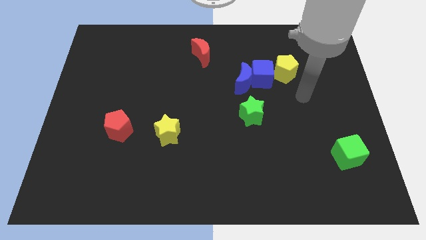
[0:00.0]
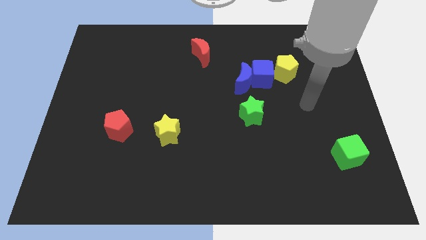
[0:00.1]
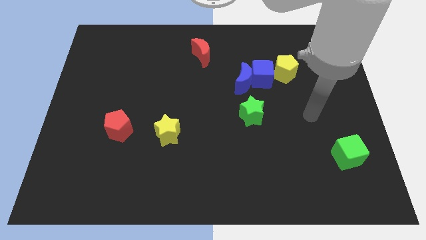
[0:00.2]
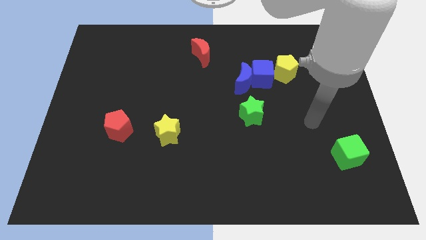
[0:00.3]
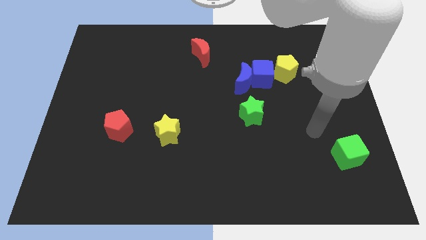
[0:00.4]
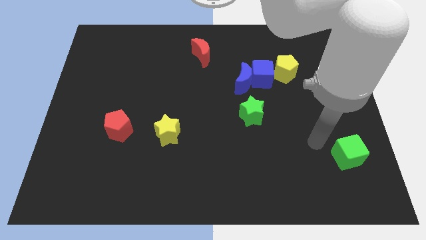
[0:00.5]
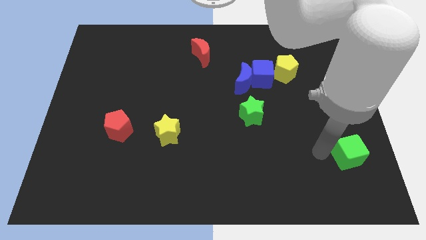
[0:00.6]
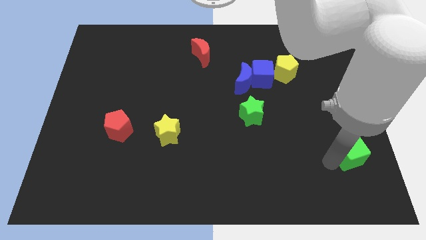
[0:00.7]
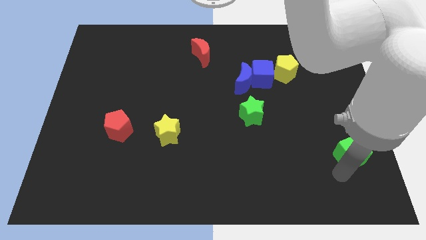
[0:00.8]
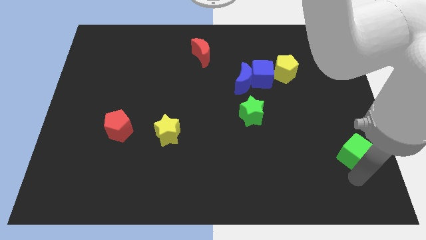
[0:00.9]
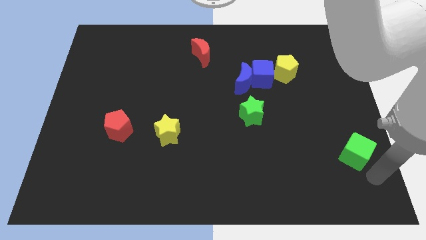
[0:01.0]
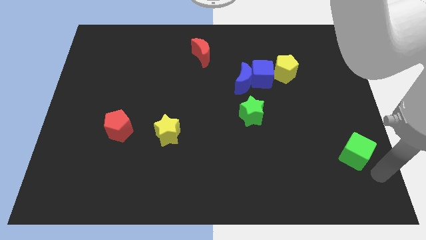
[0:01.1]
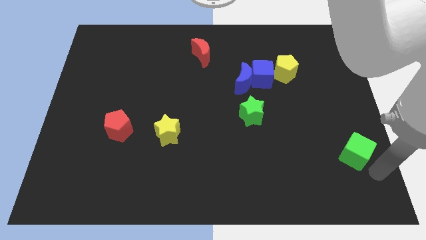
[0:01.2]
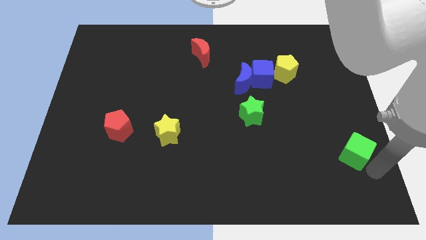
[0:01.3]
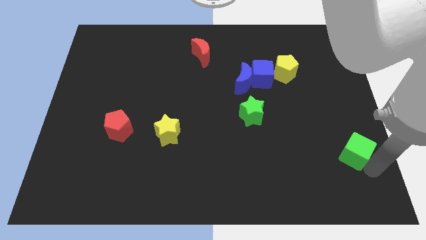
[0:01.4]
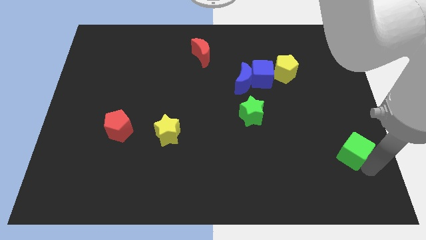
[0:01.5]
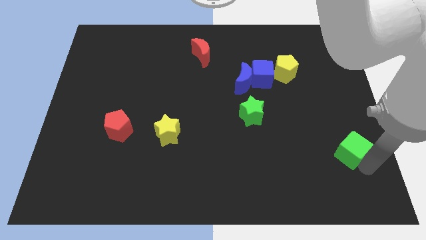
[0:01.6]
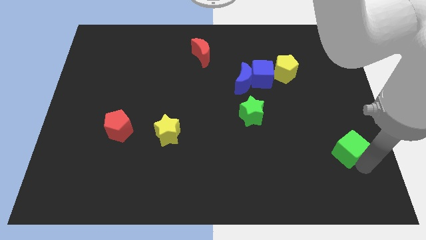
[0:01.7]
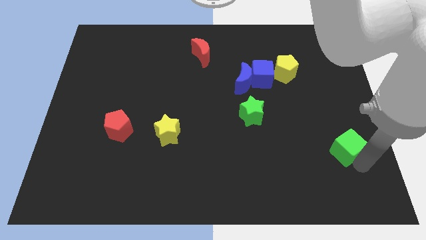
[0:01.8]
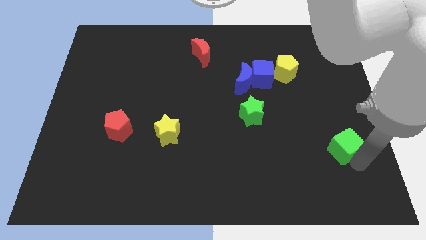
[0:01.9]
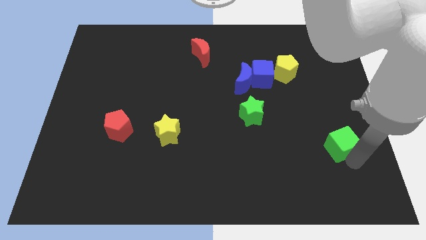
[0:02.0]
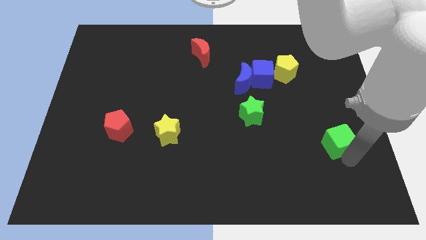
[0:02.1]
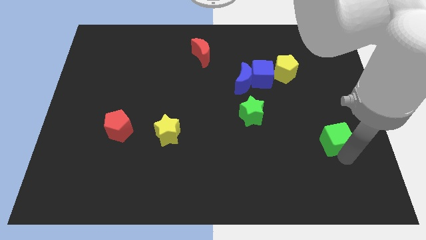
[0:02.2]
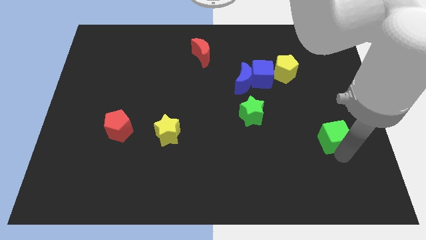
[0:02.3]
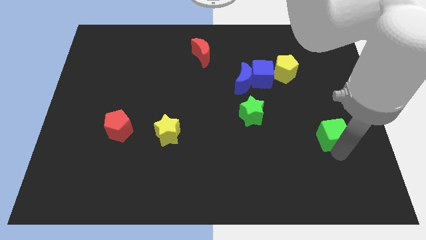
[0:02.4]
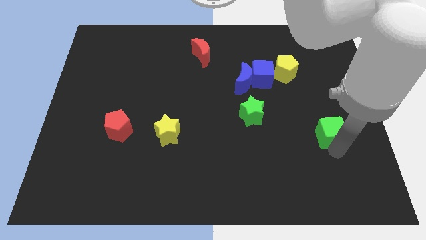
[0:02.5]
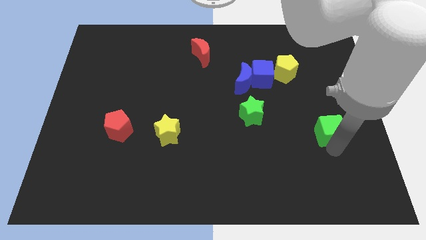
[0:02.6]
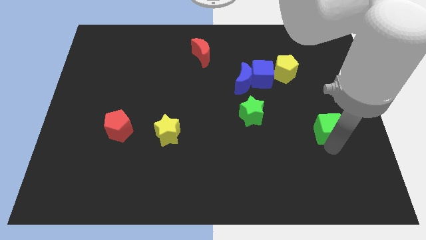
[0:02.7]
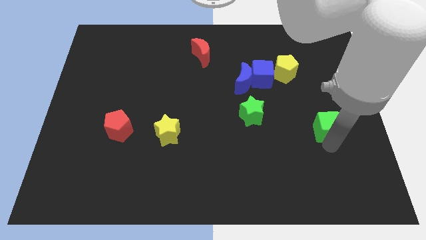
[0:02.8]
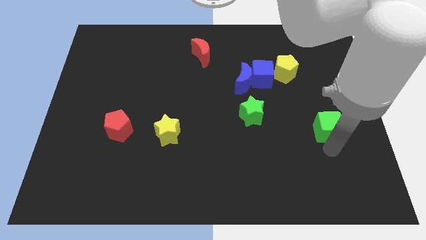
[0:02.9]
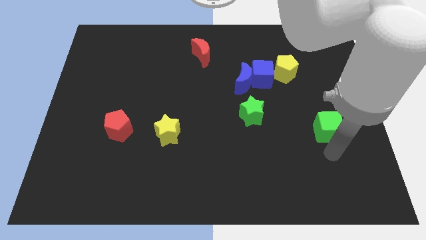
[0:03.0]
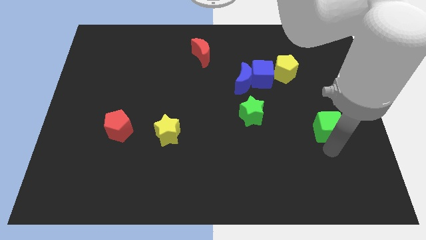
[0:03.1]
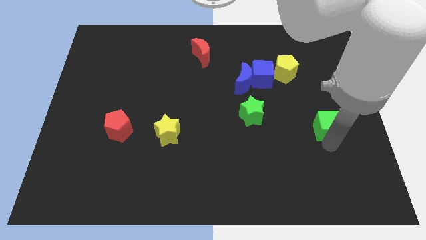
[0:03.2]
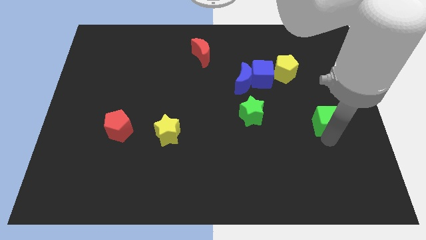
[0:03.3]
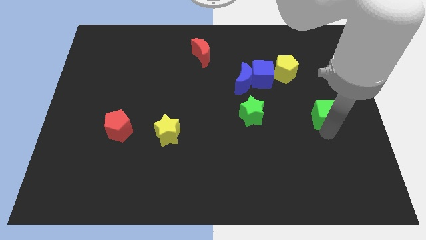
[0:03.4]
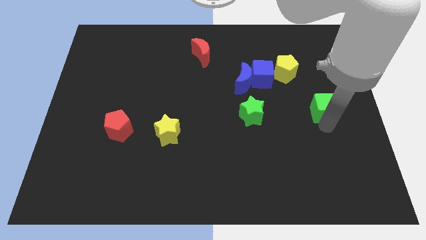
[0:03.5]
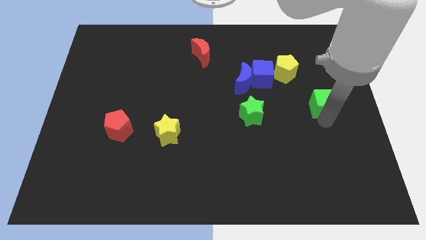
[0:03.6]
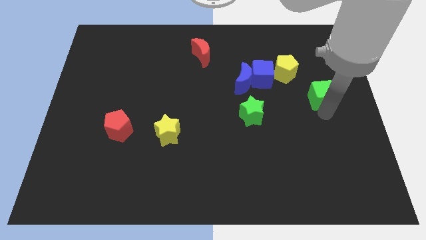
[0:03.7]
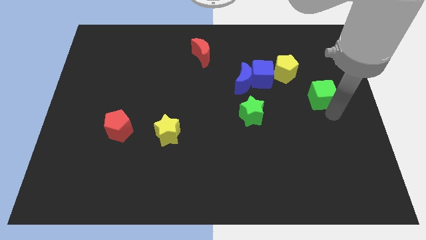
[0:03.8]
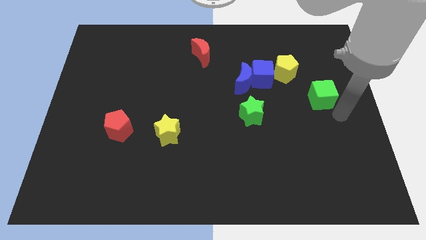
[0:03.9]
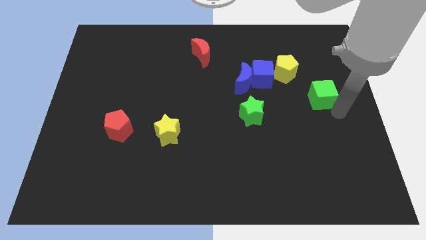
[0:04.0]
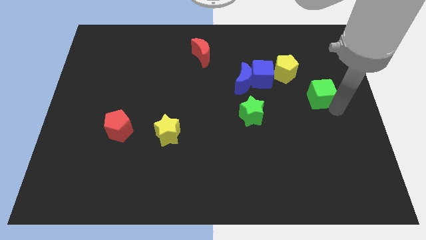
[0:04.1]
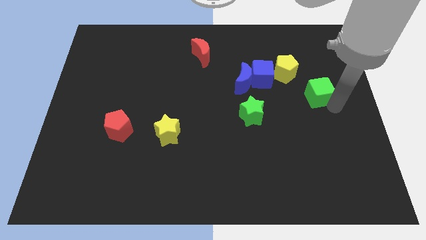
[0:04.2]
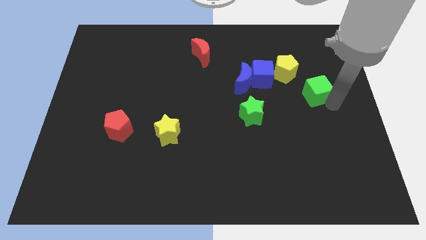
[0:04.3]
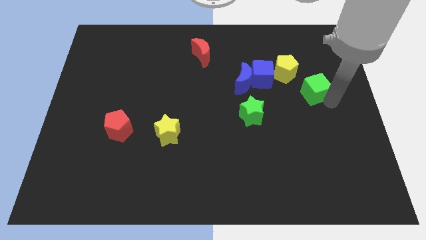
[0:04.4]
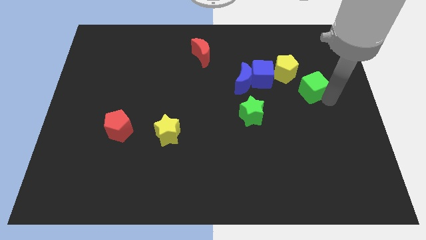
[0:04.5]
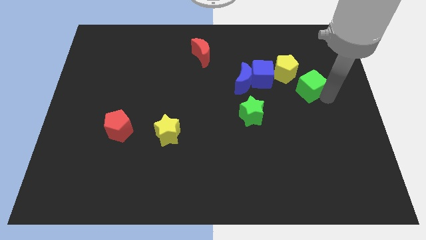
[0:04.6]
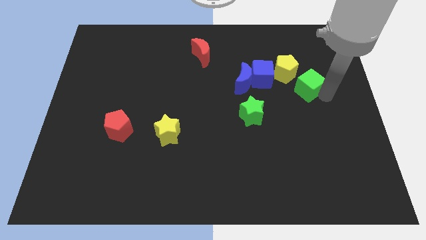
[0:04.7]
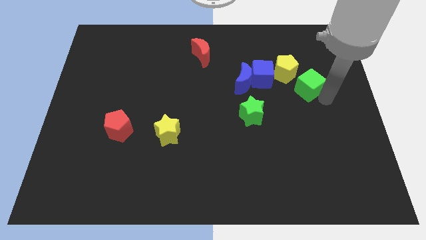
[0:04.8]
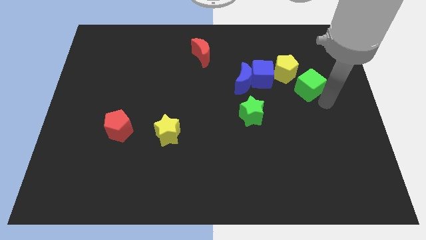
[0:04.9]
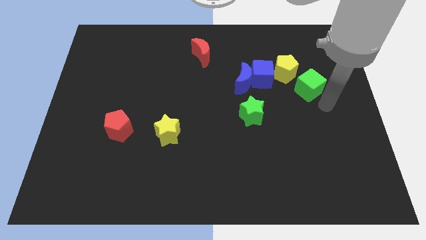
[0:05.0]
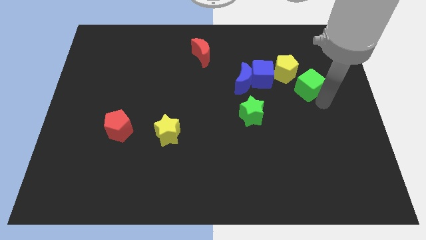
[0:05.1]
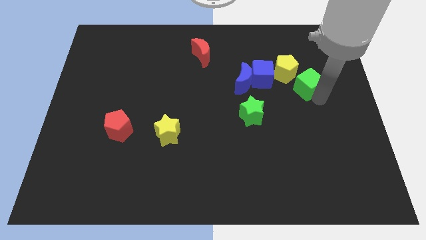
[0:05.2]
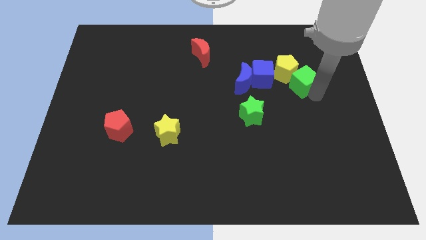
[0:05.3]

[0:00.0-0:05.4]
put the green cube to the yellow pentagon

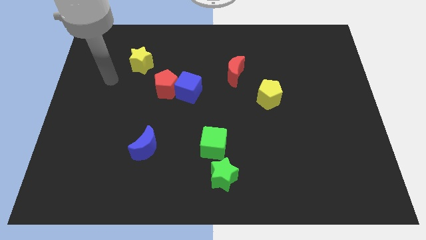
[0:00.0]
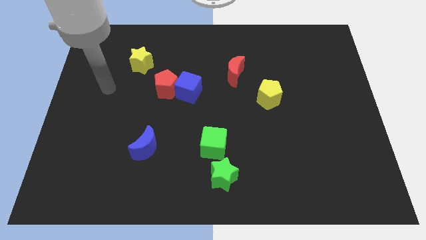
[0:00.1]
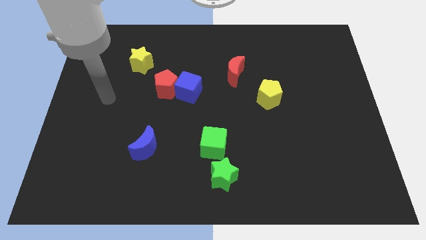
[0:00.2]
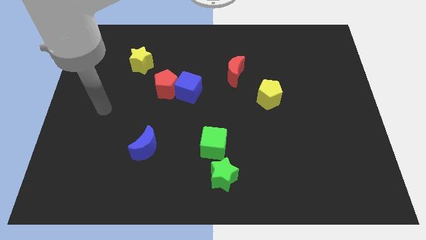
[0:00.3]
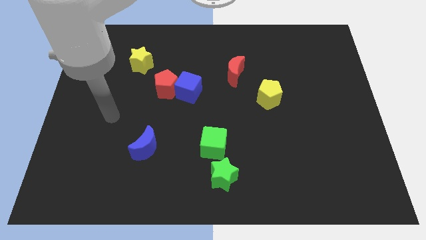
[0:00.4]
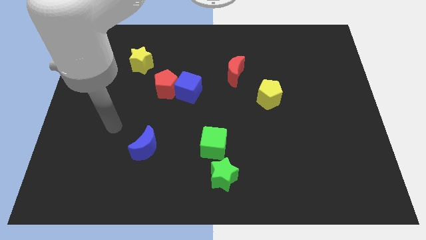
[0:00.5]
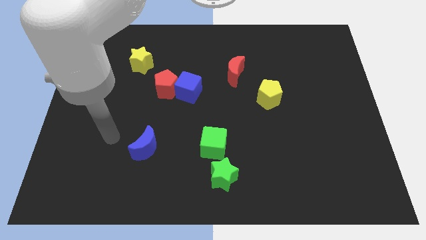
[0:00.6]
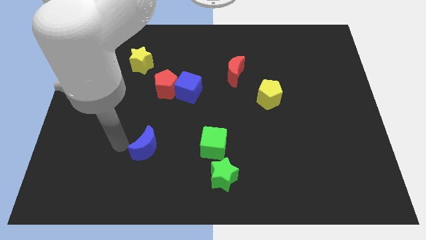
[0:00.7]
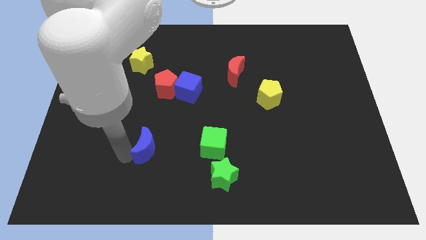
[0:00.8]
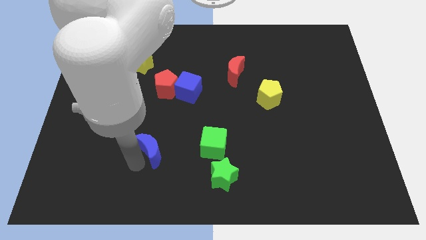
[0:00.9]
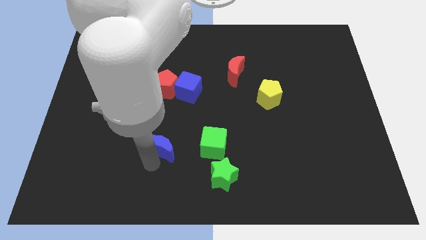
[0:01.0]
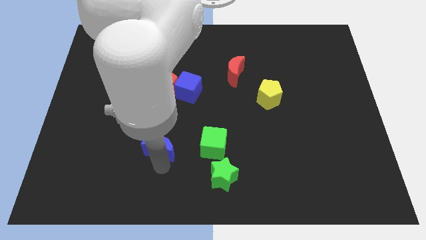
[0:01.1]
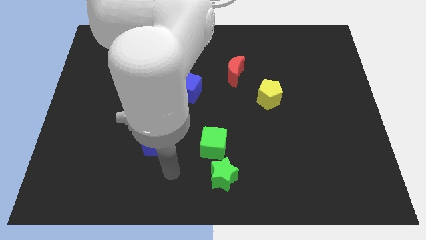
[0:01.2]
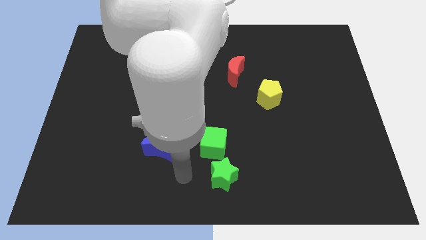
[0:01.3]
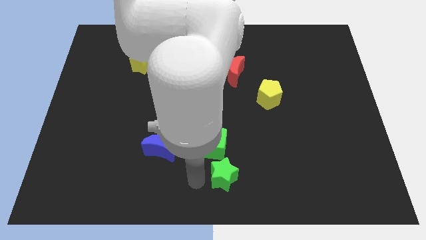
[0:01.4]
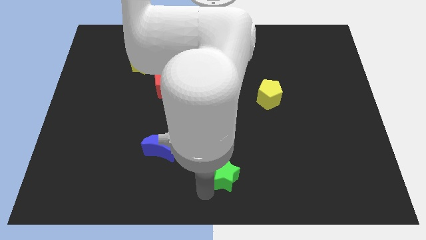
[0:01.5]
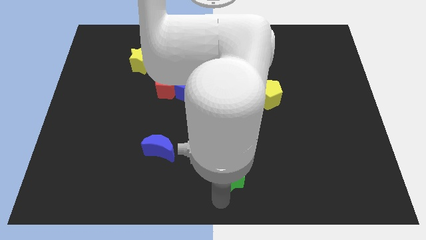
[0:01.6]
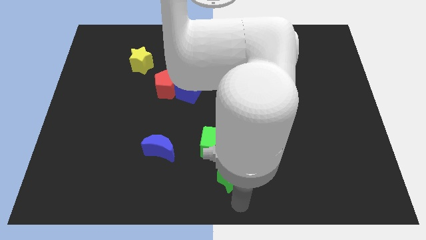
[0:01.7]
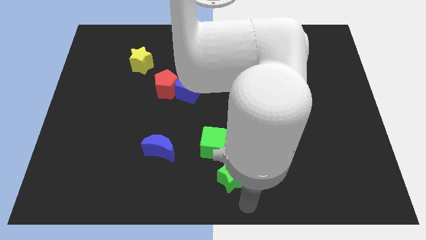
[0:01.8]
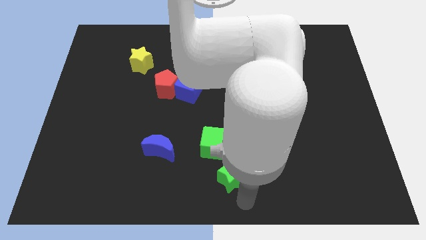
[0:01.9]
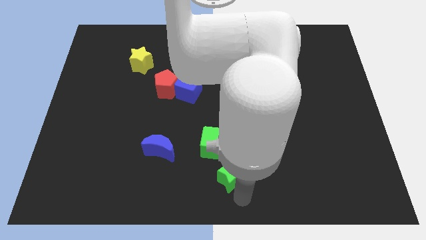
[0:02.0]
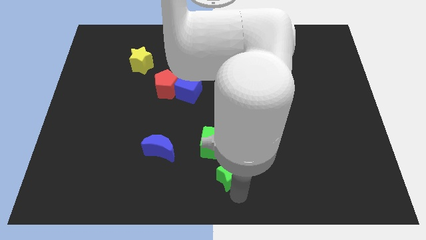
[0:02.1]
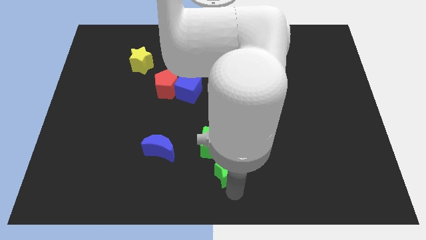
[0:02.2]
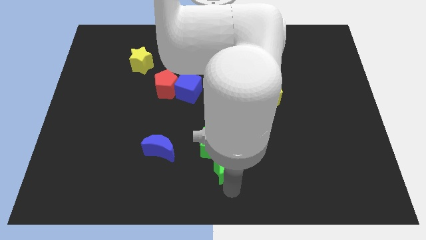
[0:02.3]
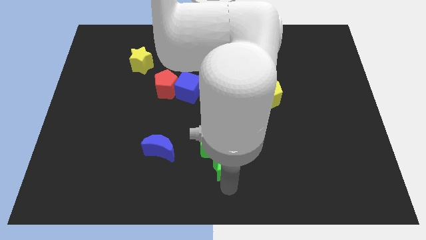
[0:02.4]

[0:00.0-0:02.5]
put the green star next to the green cube
